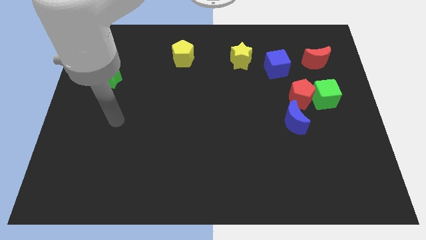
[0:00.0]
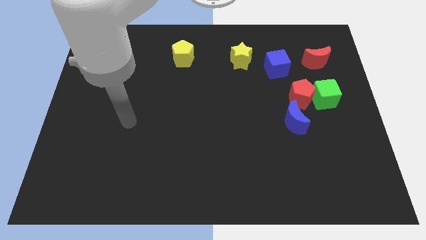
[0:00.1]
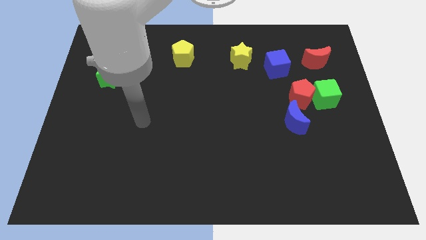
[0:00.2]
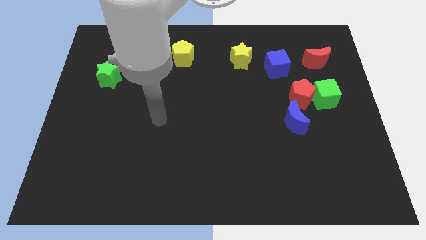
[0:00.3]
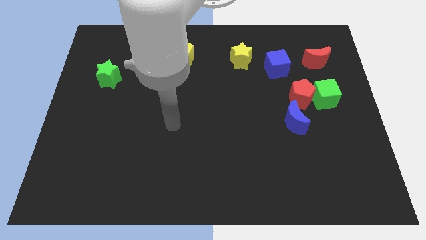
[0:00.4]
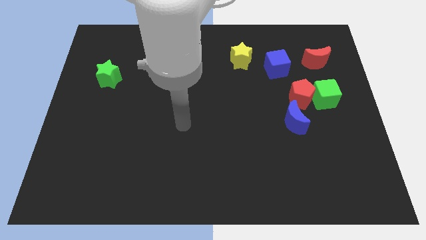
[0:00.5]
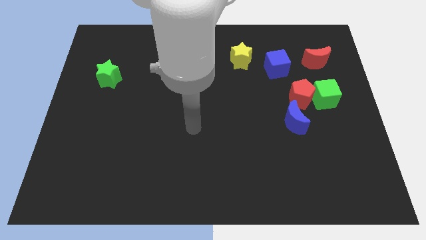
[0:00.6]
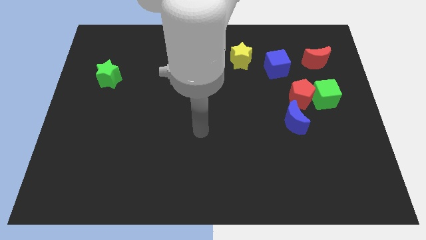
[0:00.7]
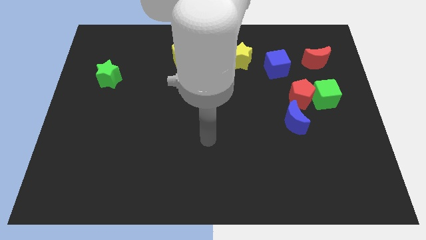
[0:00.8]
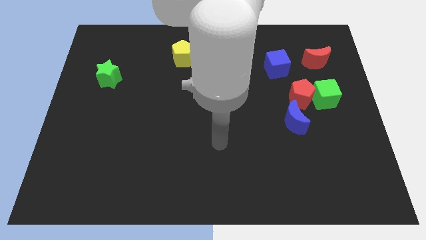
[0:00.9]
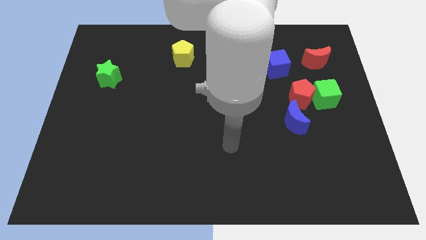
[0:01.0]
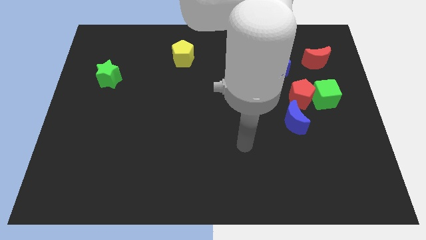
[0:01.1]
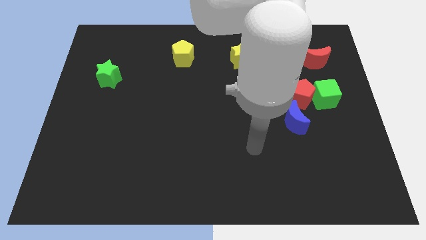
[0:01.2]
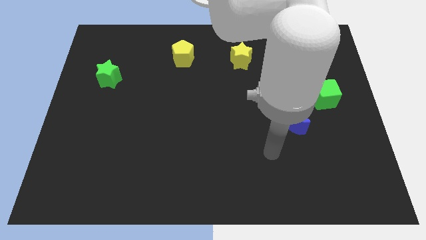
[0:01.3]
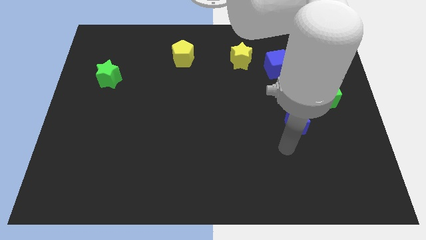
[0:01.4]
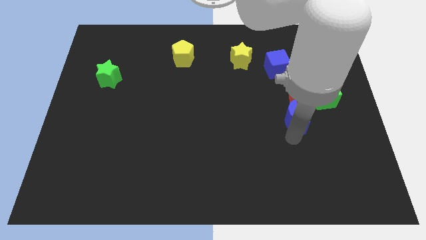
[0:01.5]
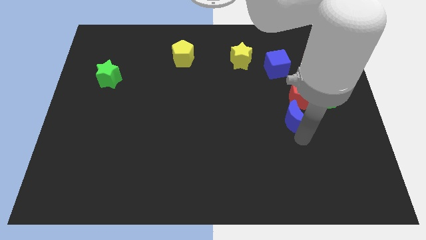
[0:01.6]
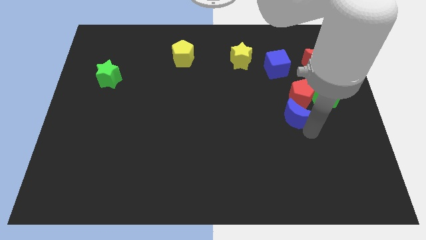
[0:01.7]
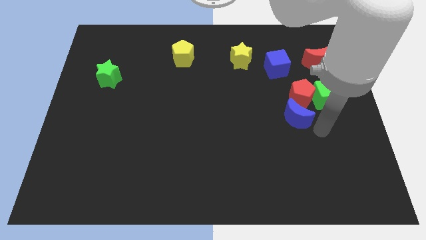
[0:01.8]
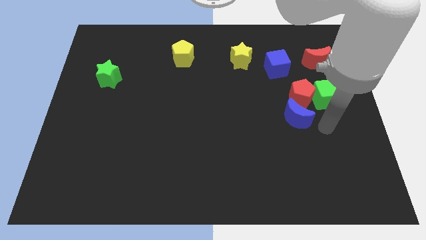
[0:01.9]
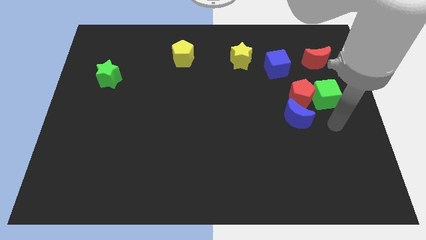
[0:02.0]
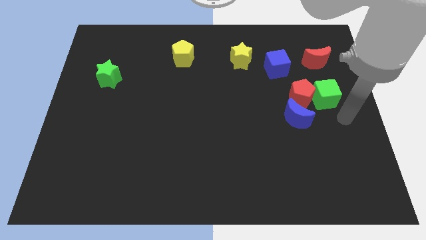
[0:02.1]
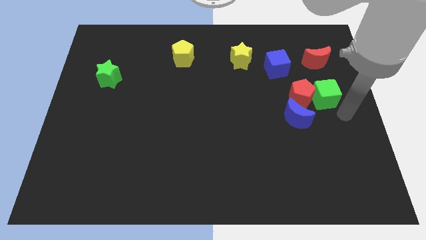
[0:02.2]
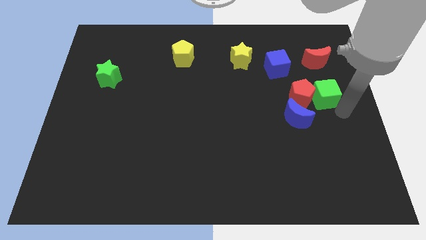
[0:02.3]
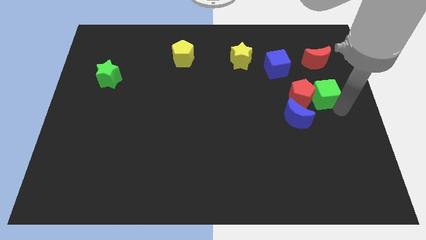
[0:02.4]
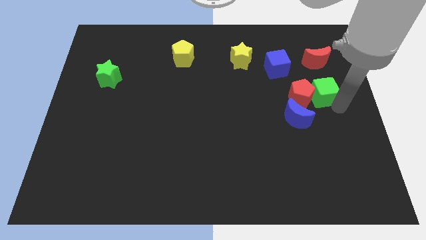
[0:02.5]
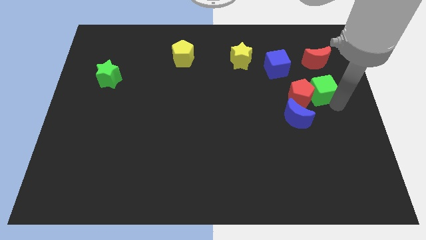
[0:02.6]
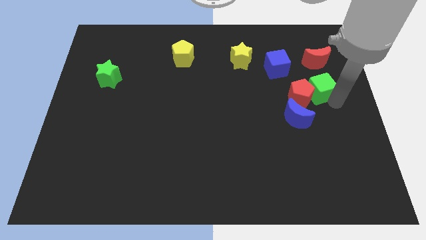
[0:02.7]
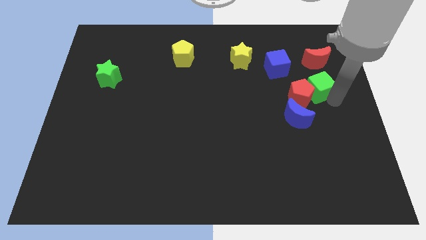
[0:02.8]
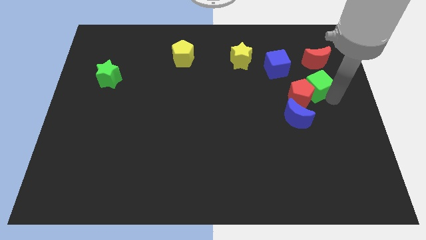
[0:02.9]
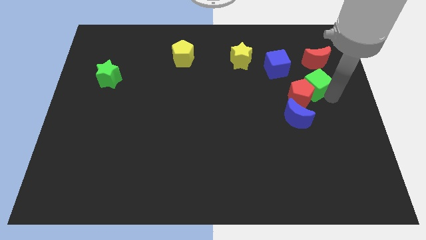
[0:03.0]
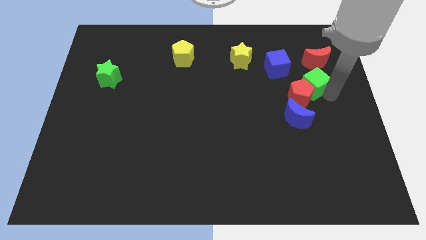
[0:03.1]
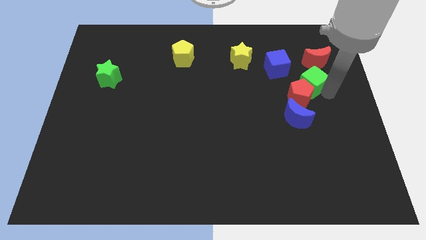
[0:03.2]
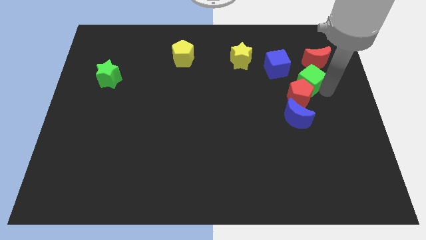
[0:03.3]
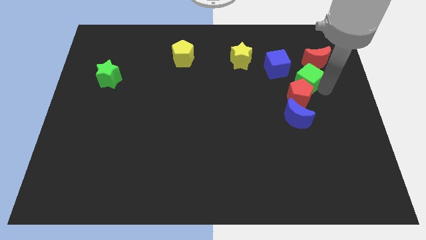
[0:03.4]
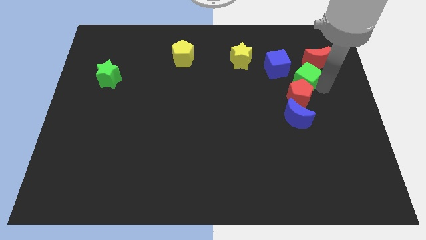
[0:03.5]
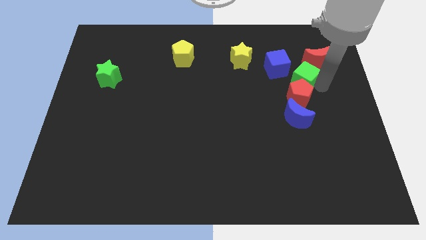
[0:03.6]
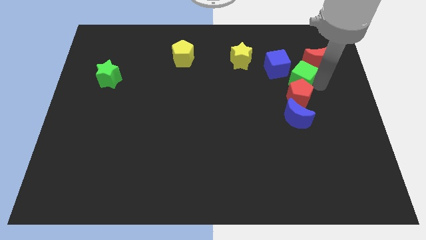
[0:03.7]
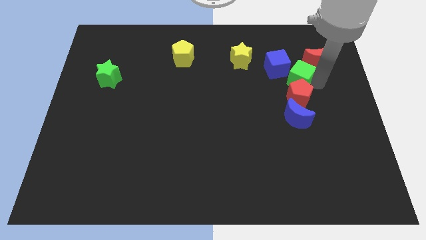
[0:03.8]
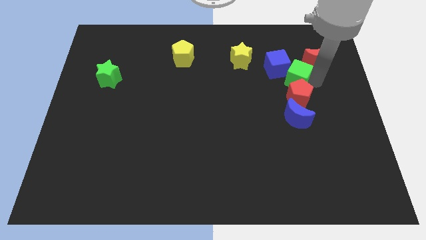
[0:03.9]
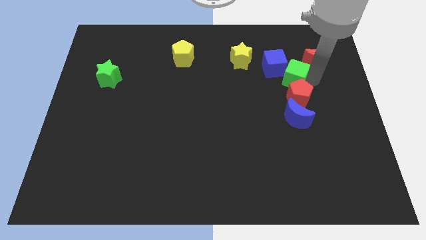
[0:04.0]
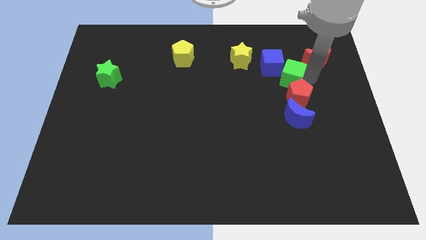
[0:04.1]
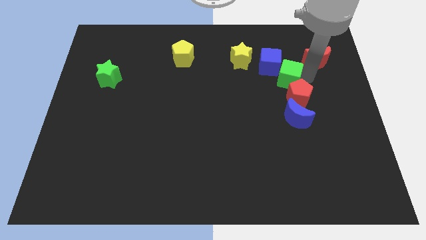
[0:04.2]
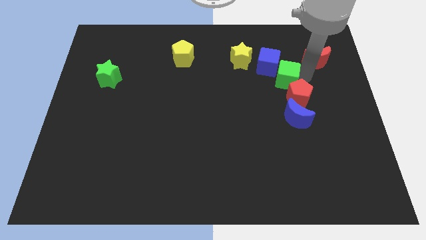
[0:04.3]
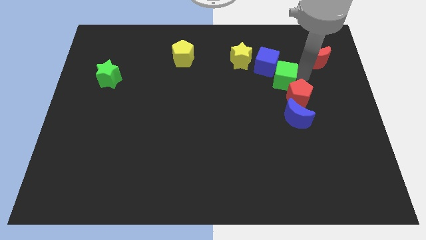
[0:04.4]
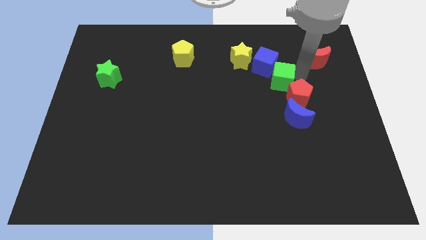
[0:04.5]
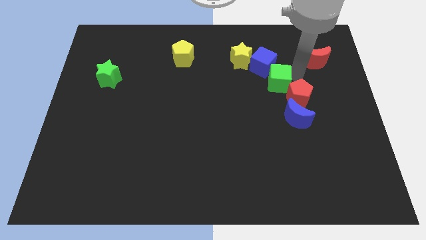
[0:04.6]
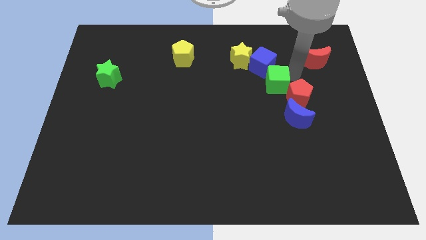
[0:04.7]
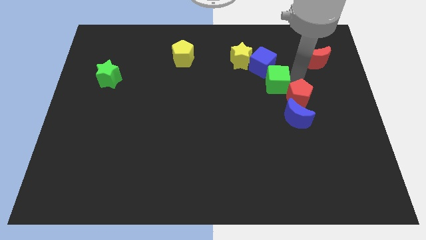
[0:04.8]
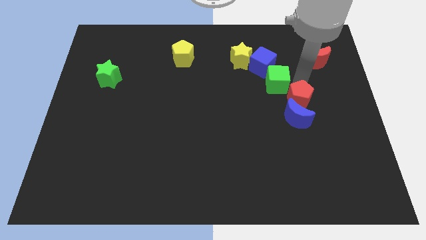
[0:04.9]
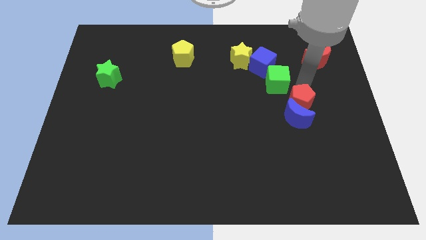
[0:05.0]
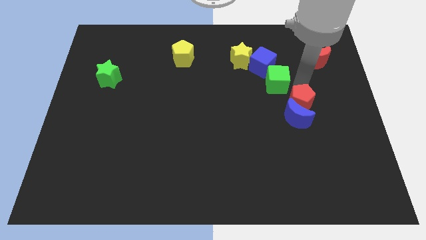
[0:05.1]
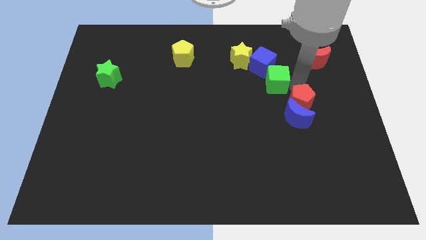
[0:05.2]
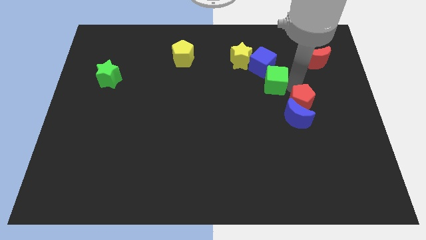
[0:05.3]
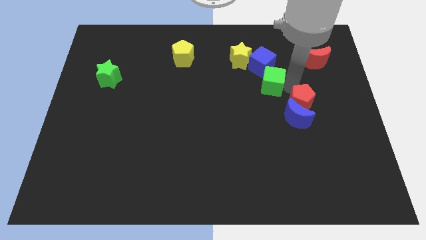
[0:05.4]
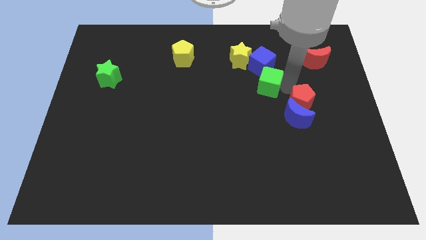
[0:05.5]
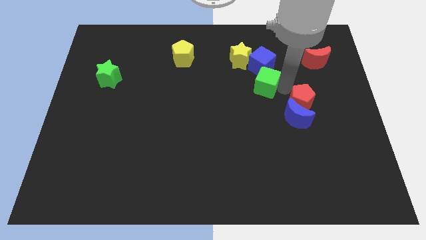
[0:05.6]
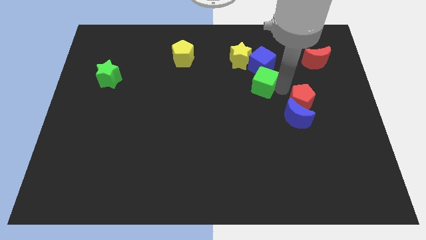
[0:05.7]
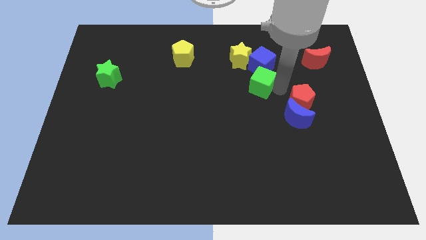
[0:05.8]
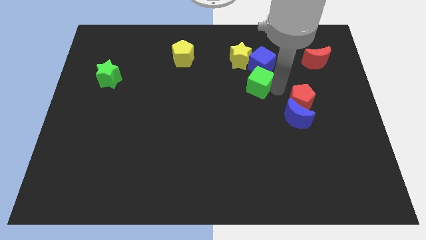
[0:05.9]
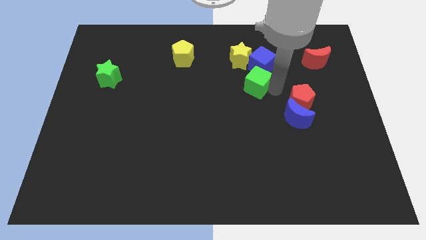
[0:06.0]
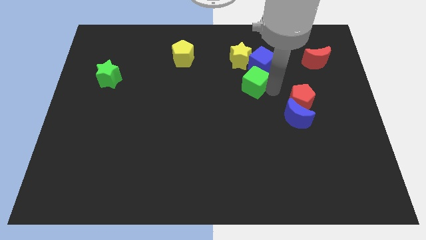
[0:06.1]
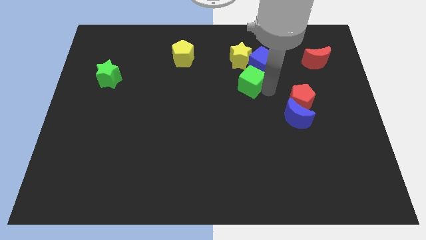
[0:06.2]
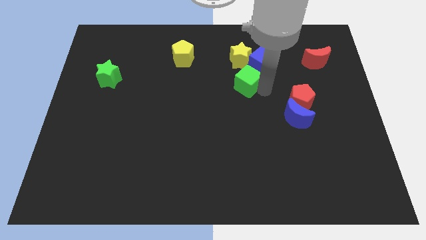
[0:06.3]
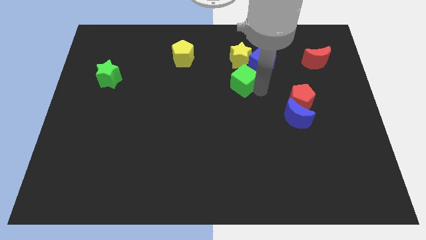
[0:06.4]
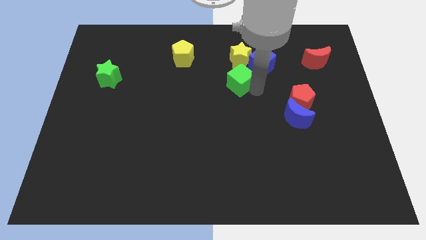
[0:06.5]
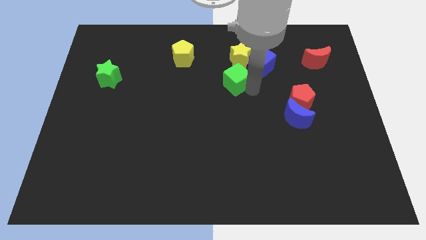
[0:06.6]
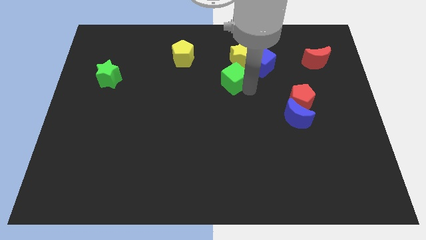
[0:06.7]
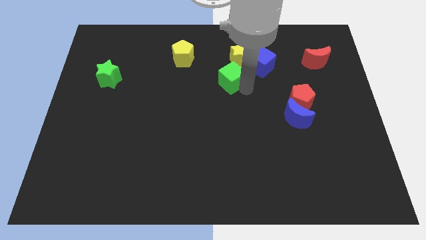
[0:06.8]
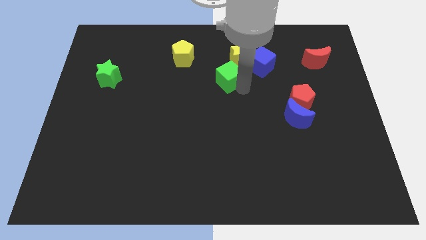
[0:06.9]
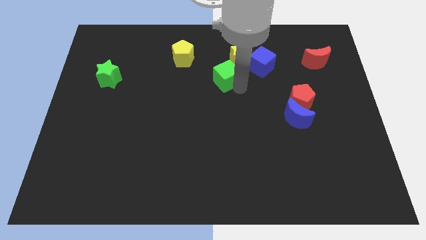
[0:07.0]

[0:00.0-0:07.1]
move the green cube just left of the blue cube
